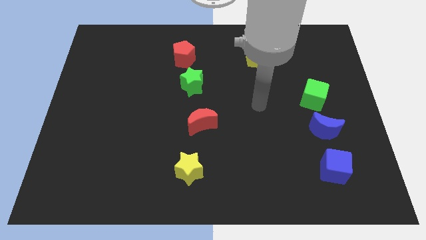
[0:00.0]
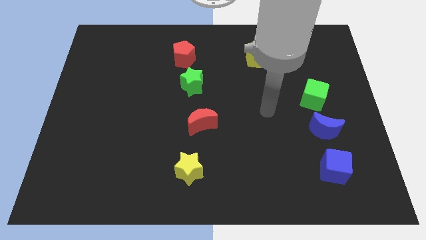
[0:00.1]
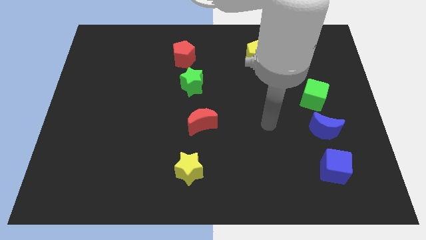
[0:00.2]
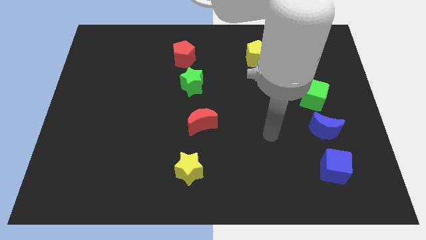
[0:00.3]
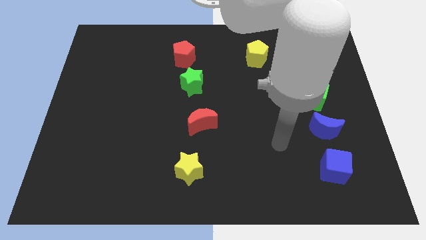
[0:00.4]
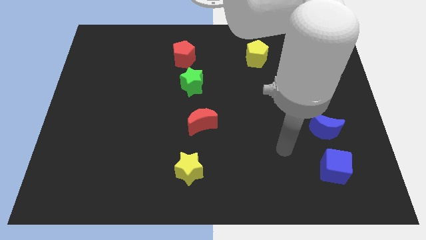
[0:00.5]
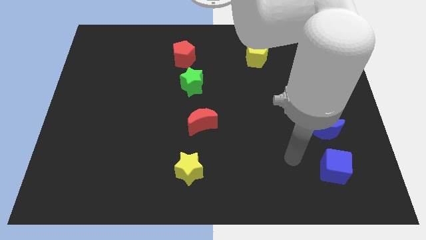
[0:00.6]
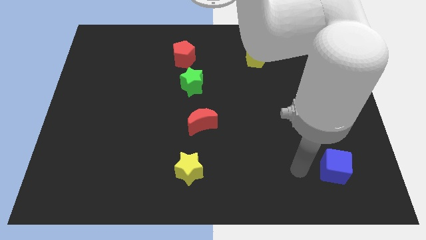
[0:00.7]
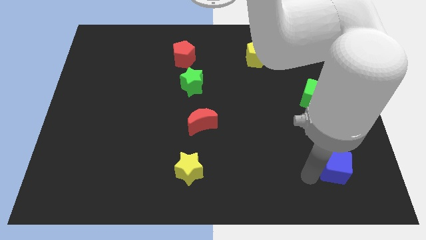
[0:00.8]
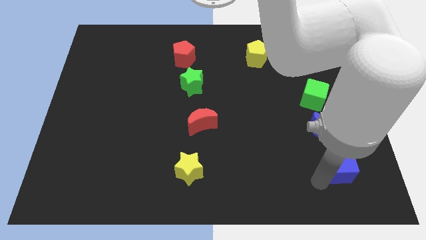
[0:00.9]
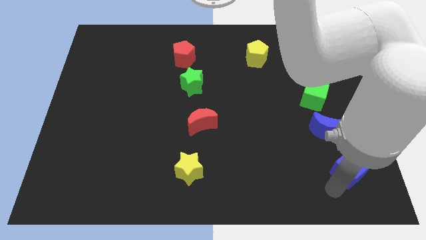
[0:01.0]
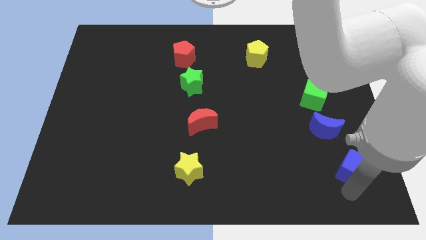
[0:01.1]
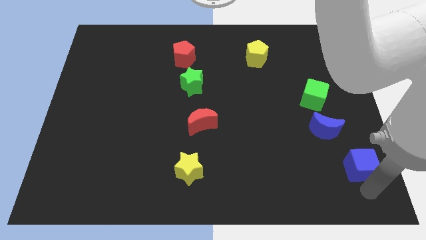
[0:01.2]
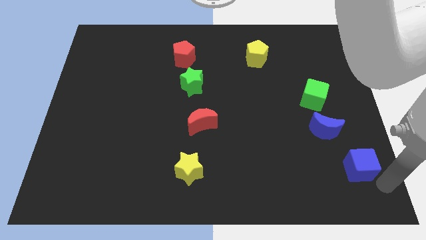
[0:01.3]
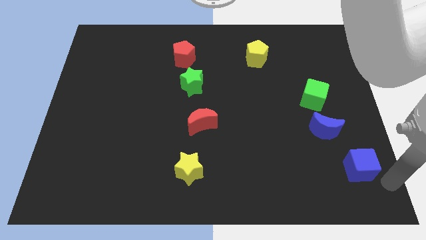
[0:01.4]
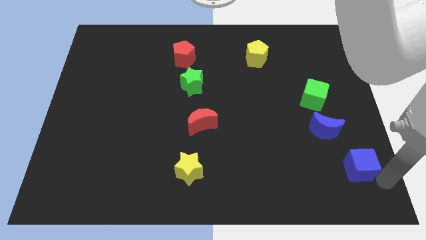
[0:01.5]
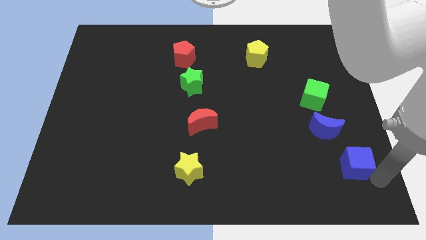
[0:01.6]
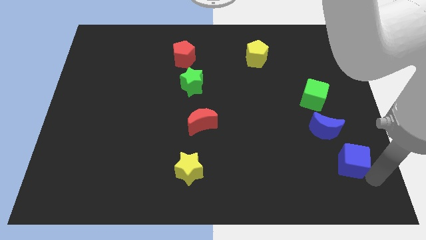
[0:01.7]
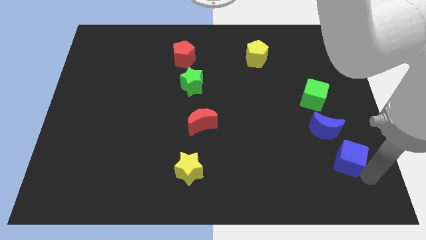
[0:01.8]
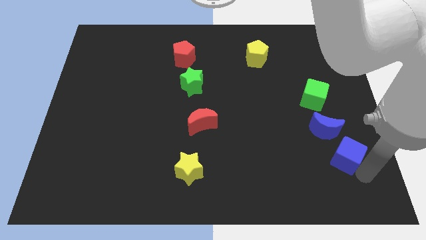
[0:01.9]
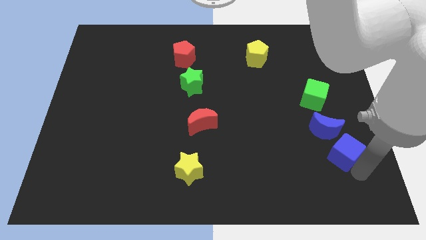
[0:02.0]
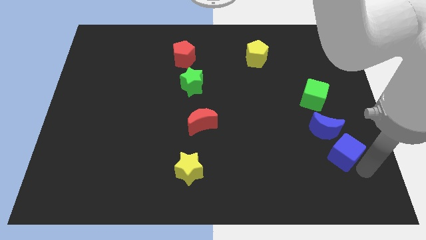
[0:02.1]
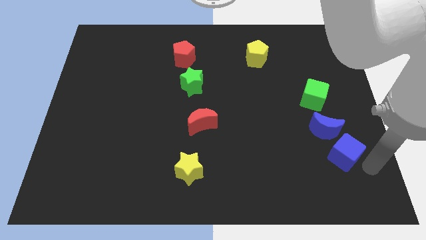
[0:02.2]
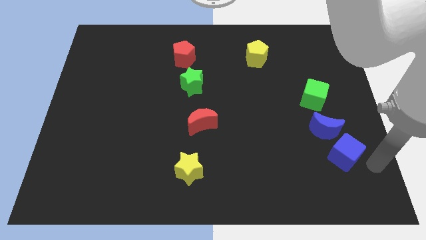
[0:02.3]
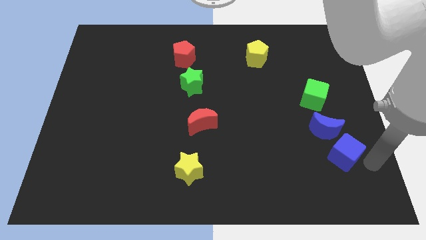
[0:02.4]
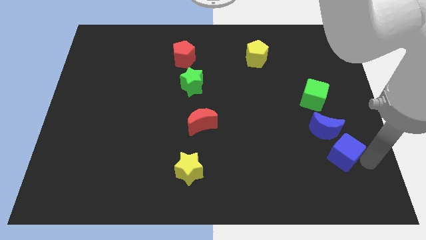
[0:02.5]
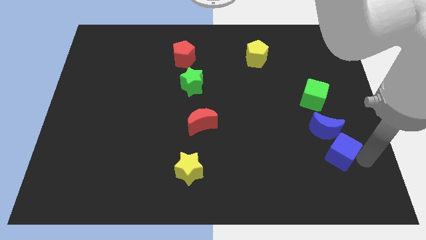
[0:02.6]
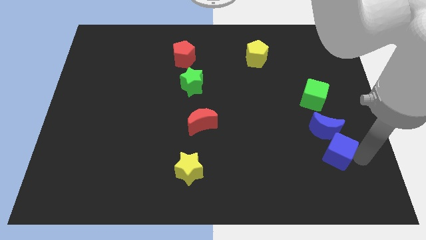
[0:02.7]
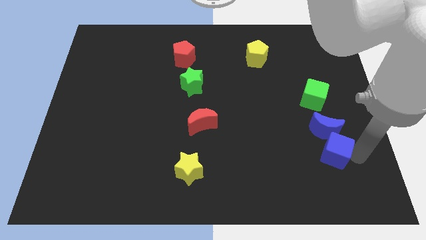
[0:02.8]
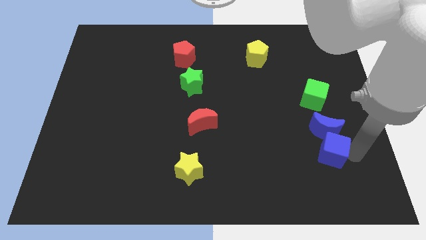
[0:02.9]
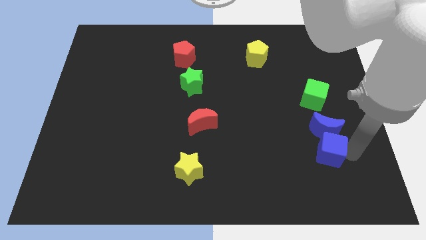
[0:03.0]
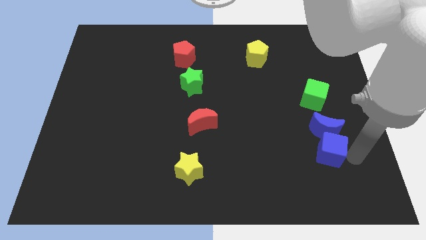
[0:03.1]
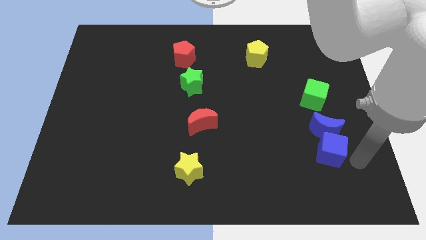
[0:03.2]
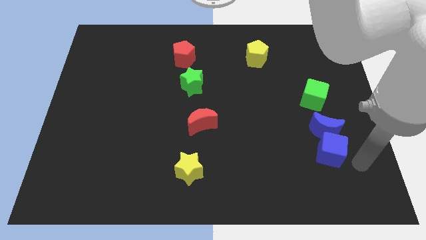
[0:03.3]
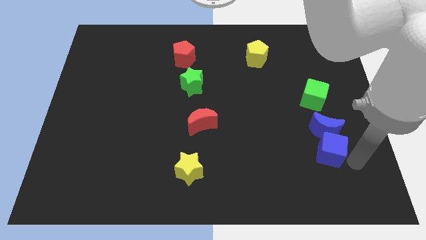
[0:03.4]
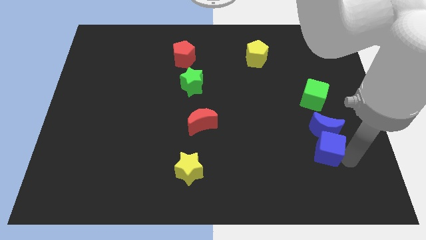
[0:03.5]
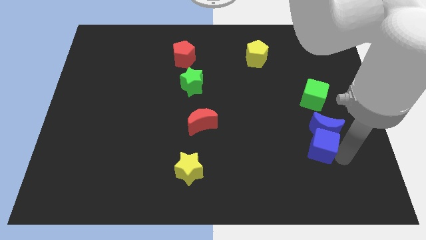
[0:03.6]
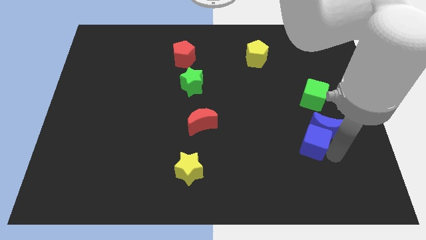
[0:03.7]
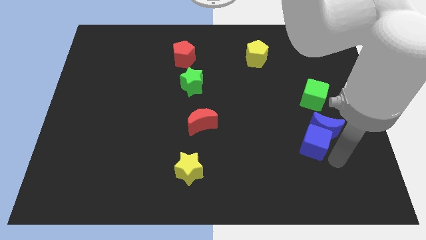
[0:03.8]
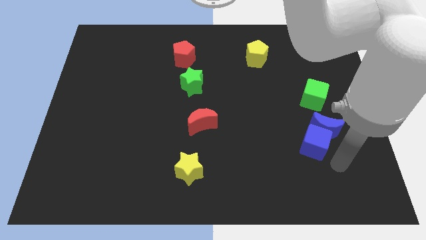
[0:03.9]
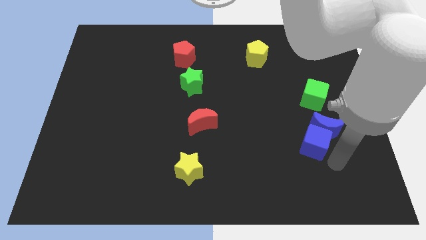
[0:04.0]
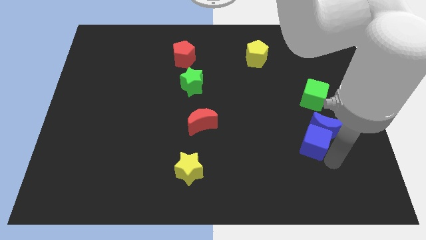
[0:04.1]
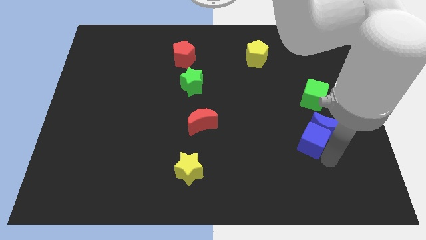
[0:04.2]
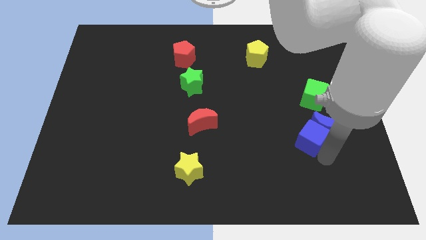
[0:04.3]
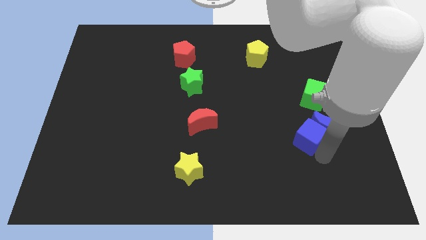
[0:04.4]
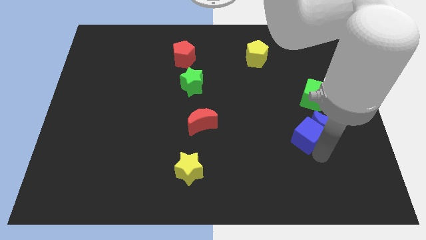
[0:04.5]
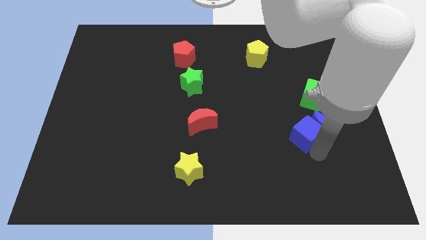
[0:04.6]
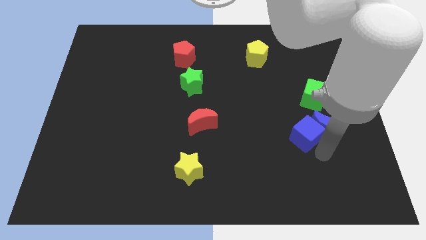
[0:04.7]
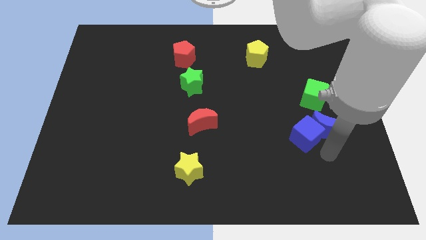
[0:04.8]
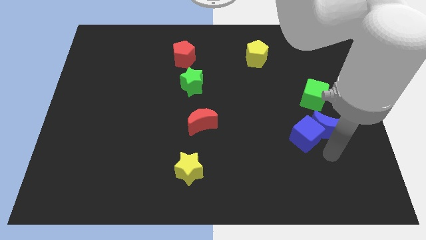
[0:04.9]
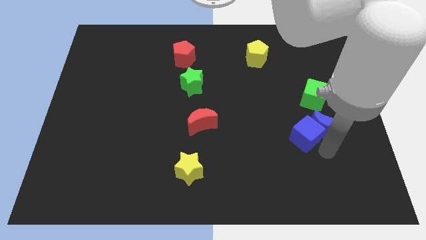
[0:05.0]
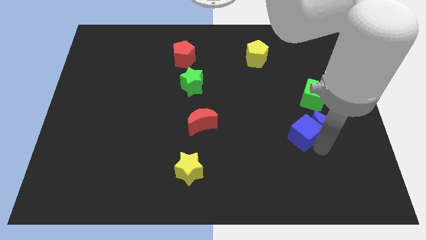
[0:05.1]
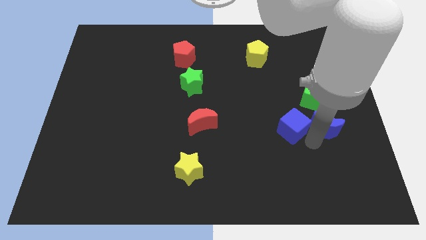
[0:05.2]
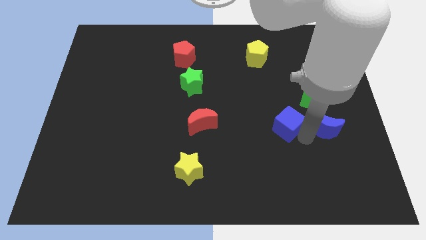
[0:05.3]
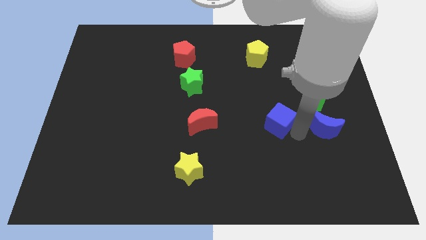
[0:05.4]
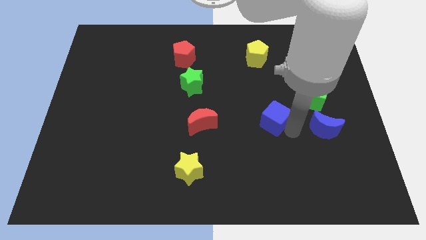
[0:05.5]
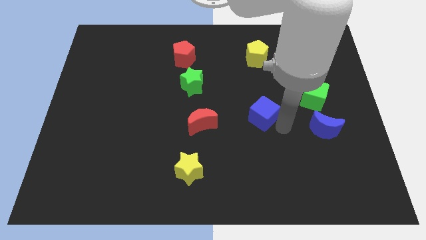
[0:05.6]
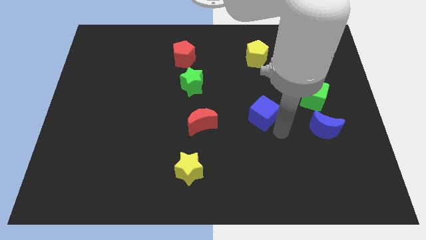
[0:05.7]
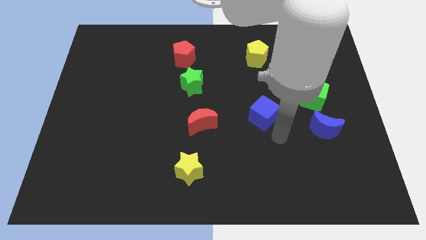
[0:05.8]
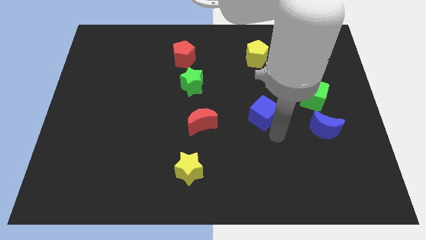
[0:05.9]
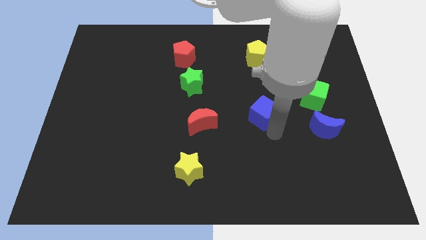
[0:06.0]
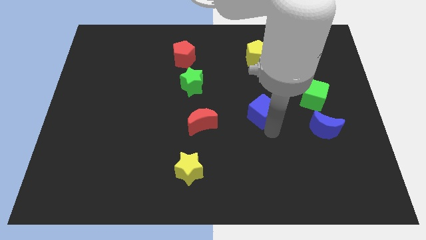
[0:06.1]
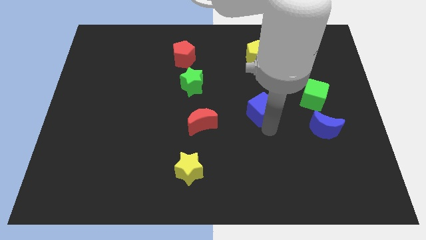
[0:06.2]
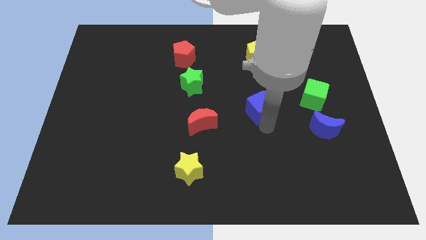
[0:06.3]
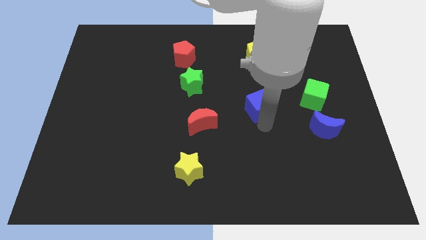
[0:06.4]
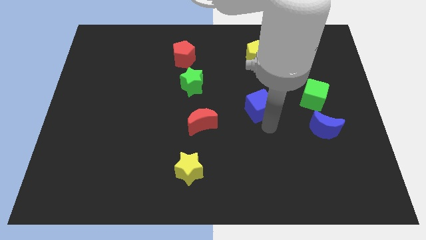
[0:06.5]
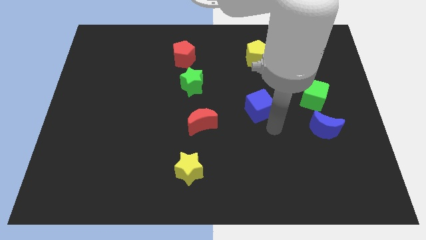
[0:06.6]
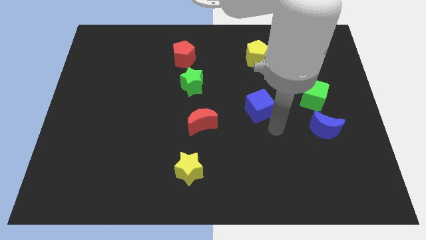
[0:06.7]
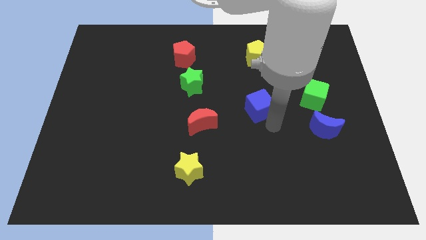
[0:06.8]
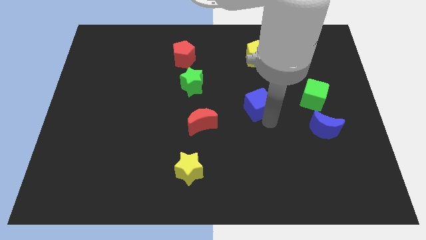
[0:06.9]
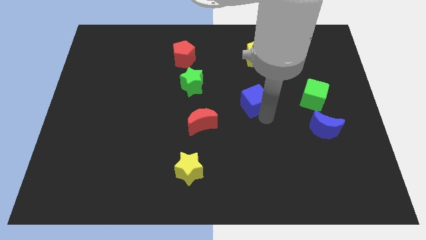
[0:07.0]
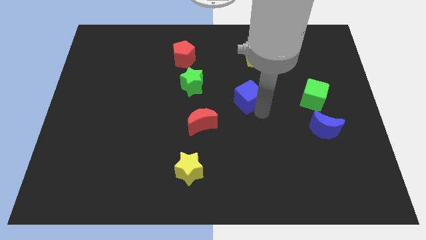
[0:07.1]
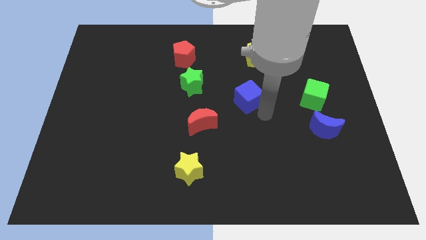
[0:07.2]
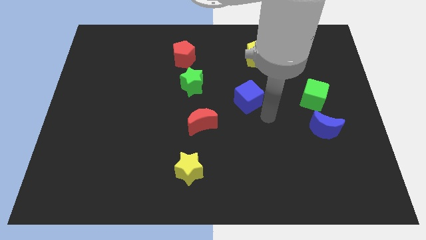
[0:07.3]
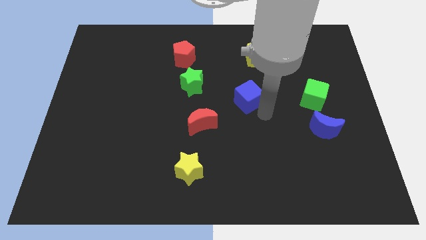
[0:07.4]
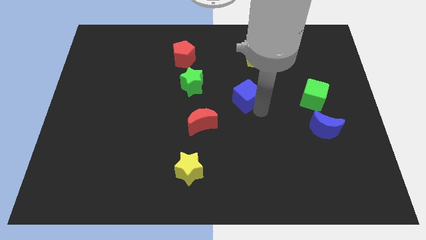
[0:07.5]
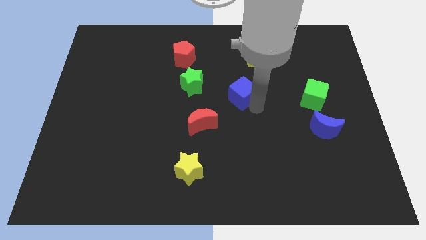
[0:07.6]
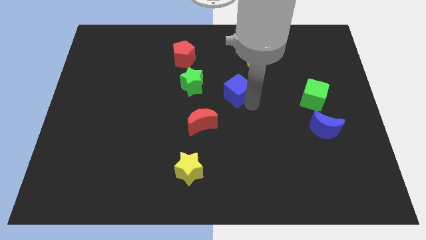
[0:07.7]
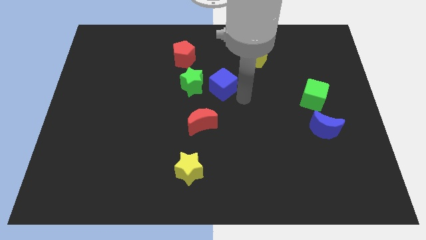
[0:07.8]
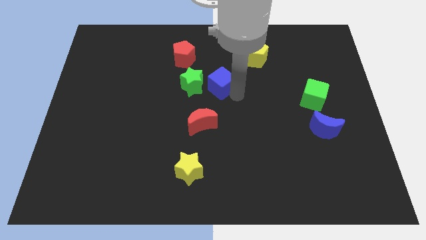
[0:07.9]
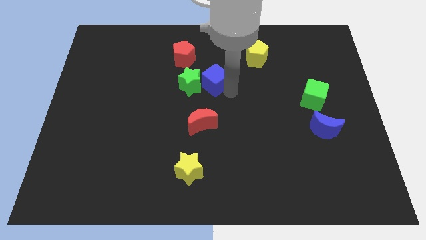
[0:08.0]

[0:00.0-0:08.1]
move the blue cube to the bottom right side of the red pentagon
